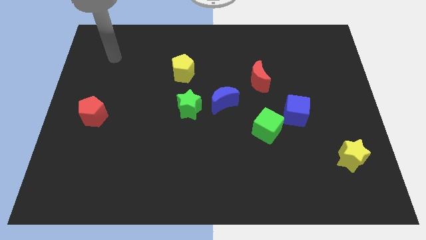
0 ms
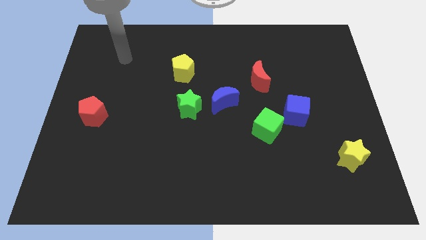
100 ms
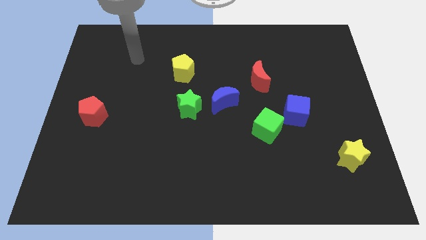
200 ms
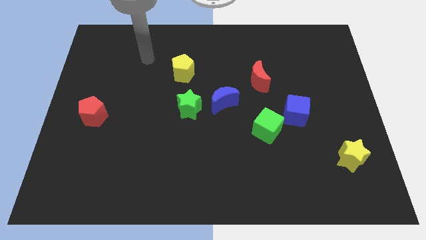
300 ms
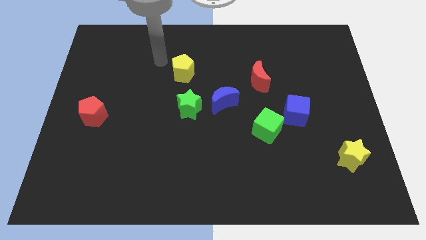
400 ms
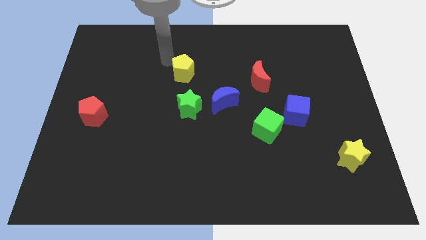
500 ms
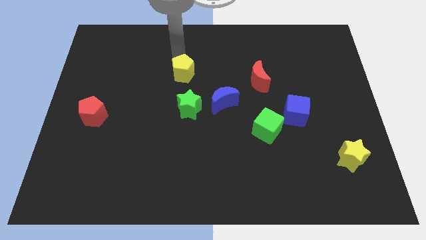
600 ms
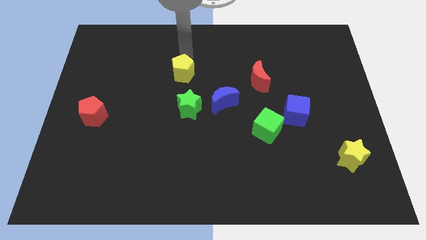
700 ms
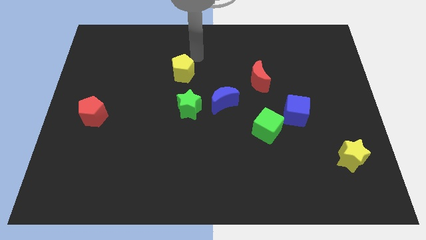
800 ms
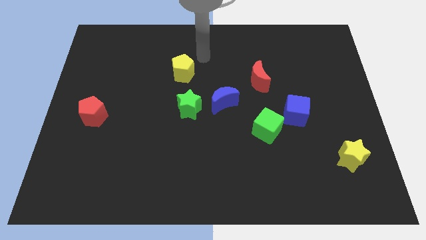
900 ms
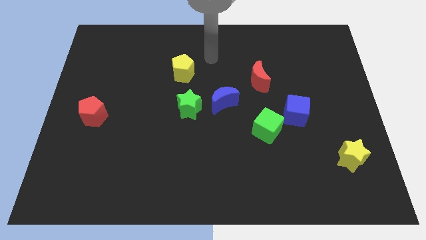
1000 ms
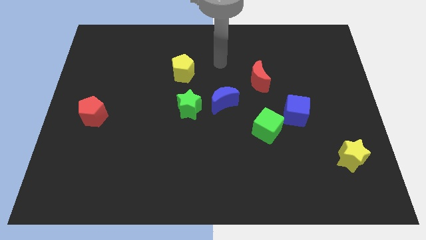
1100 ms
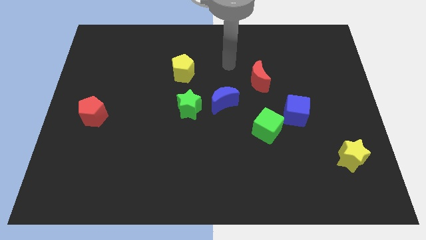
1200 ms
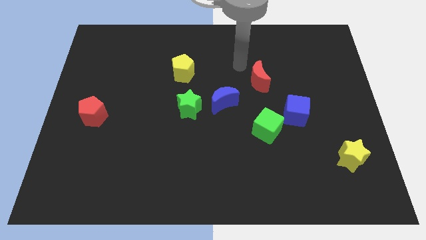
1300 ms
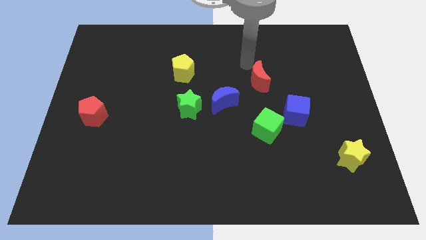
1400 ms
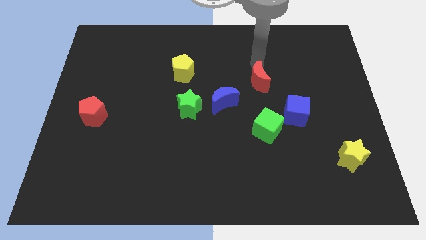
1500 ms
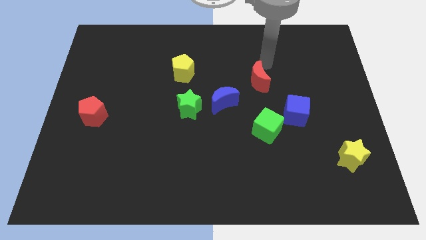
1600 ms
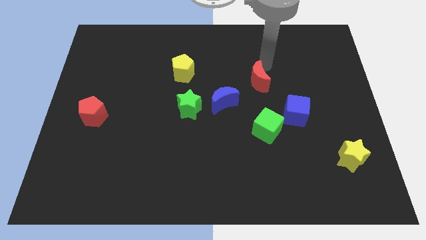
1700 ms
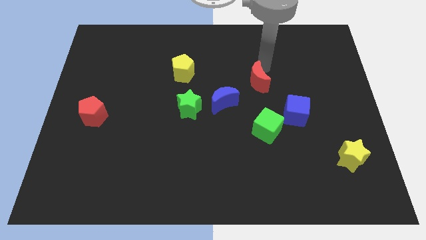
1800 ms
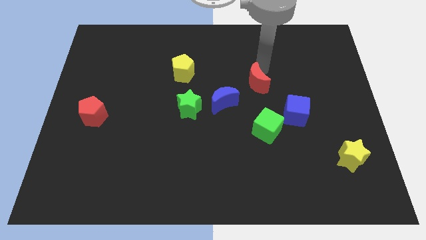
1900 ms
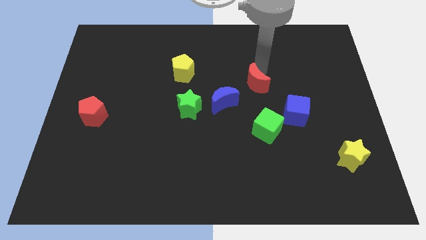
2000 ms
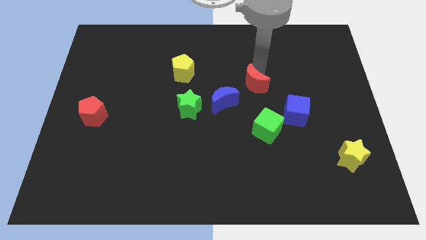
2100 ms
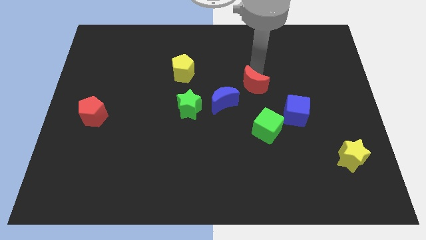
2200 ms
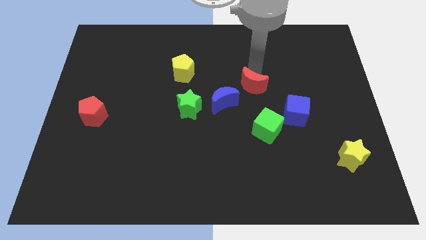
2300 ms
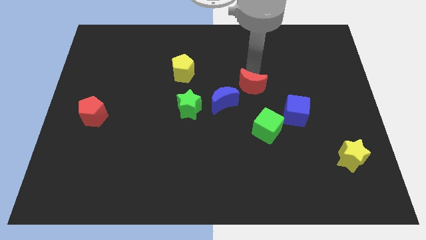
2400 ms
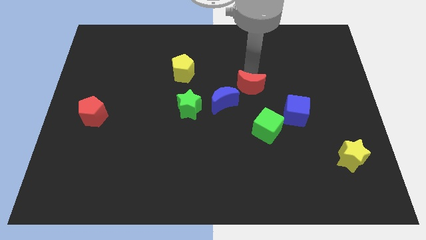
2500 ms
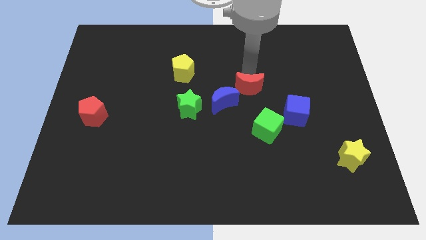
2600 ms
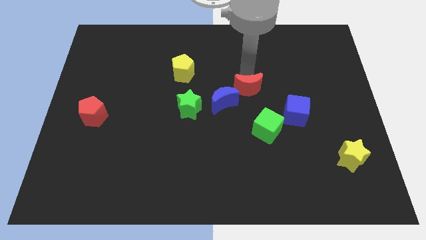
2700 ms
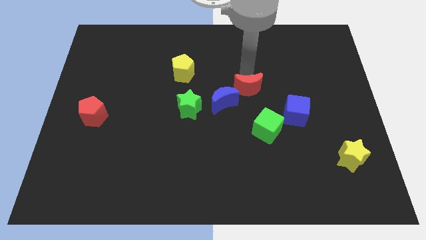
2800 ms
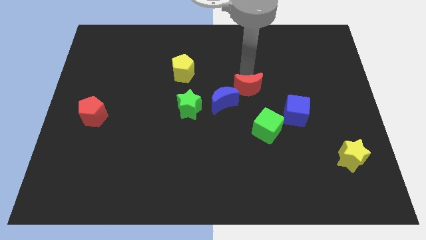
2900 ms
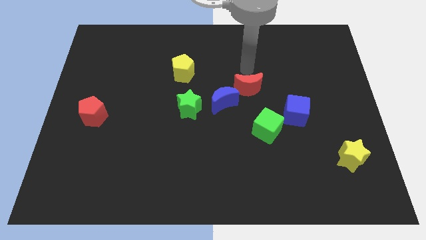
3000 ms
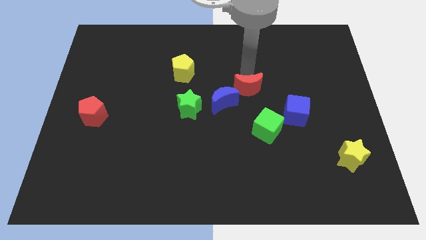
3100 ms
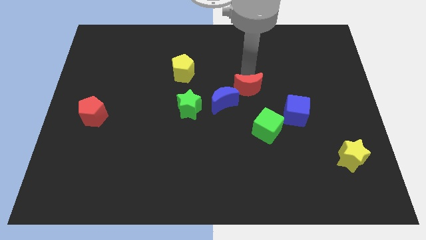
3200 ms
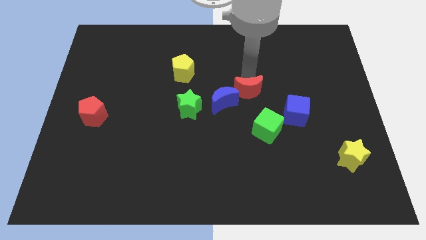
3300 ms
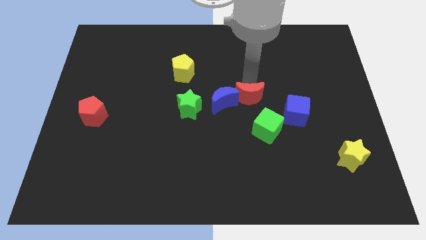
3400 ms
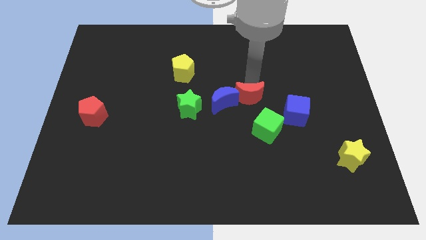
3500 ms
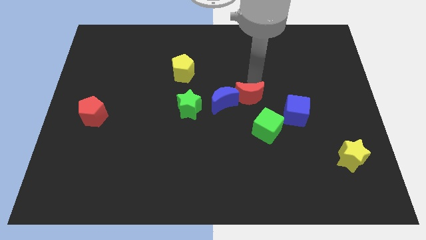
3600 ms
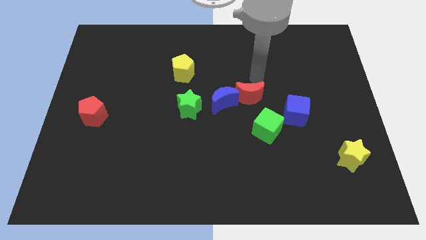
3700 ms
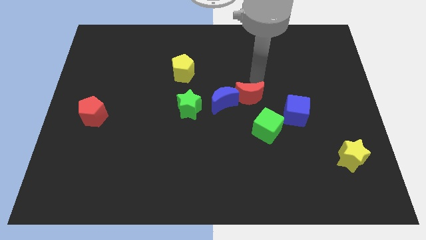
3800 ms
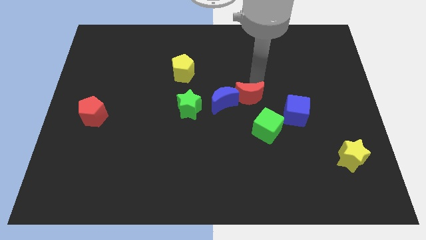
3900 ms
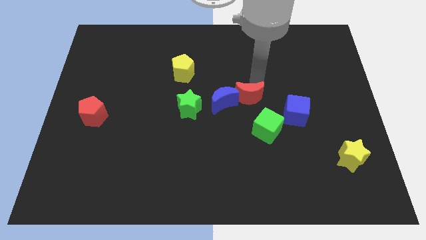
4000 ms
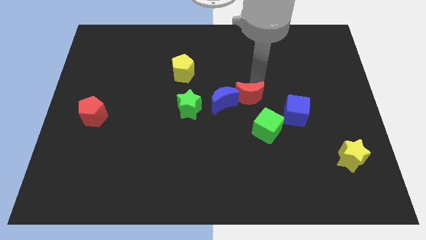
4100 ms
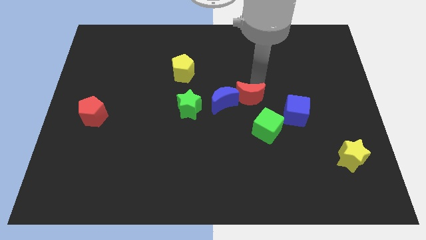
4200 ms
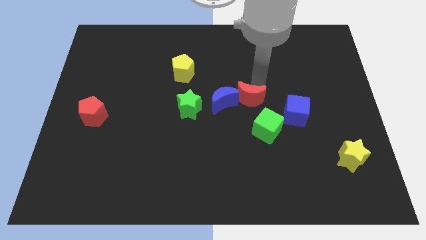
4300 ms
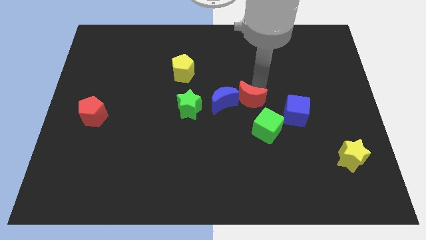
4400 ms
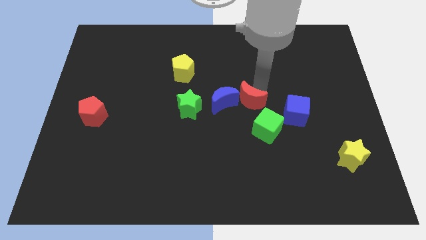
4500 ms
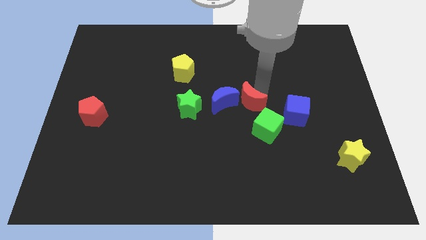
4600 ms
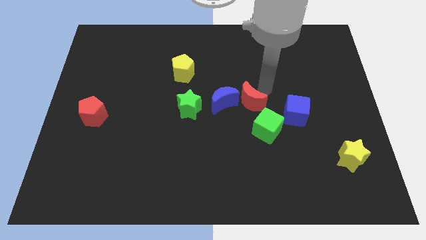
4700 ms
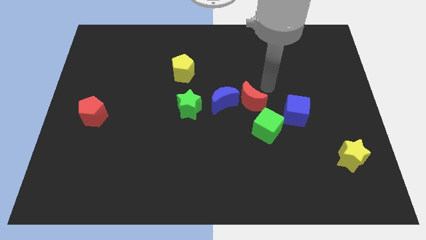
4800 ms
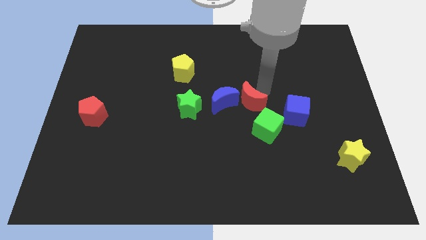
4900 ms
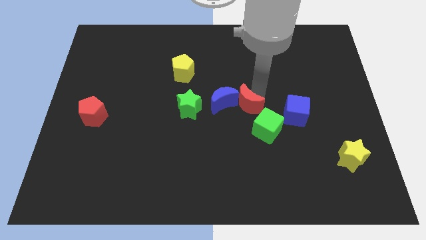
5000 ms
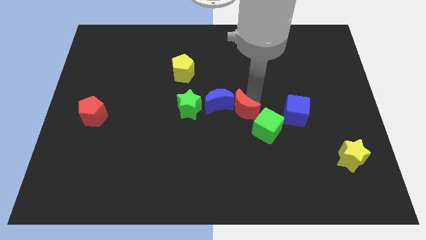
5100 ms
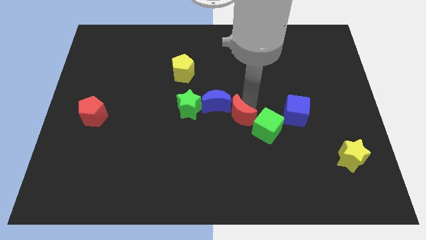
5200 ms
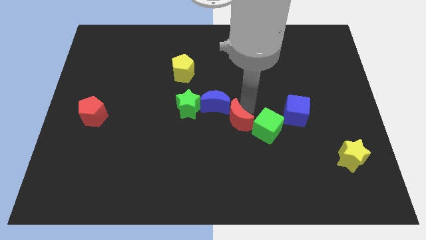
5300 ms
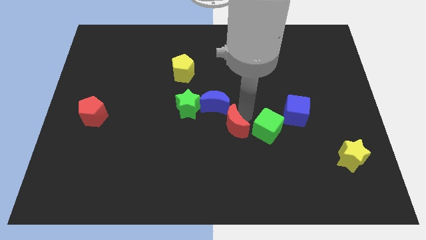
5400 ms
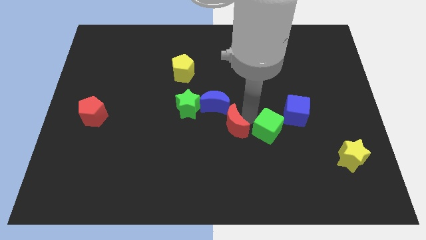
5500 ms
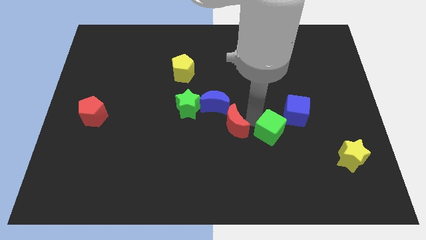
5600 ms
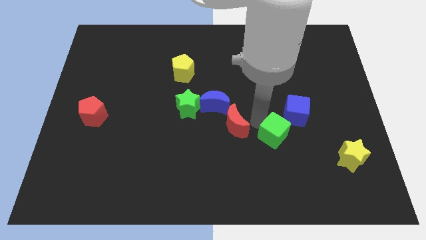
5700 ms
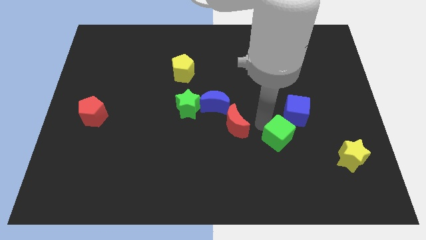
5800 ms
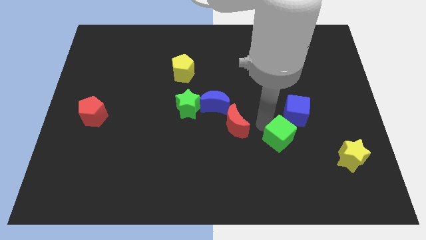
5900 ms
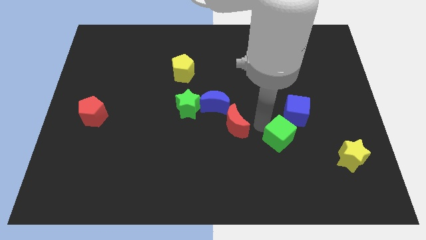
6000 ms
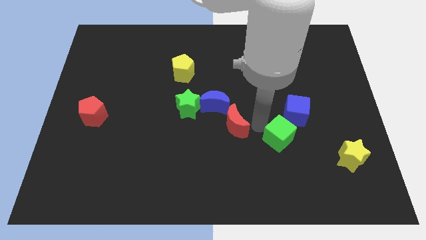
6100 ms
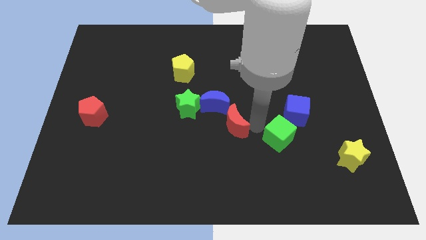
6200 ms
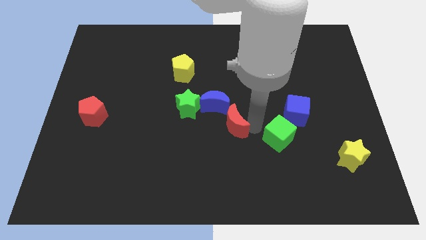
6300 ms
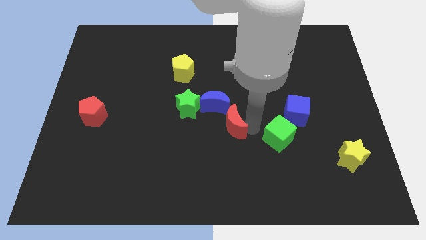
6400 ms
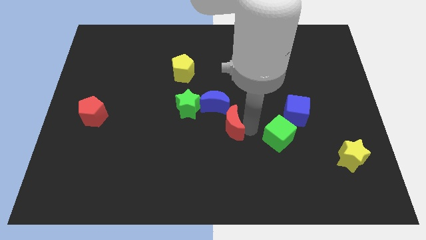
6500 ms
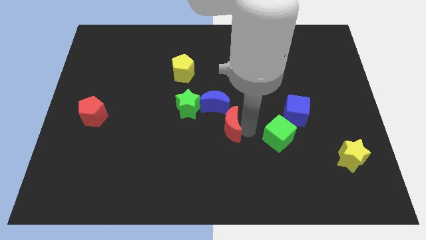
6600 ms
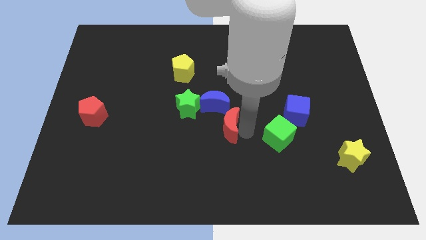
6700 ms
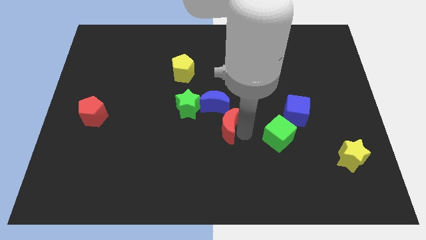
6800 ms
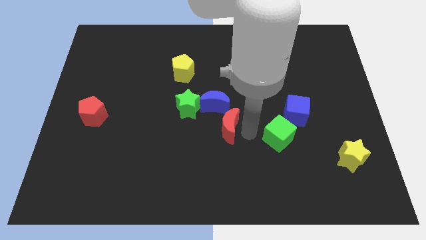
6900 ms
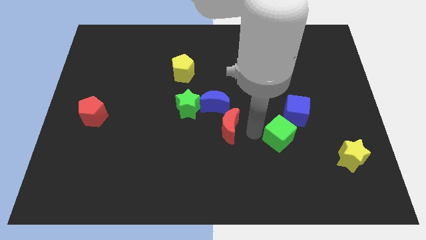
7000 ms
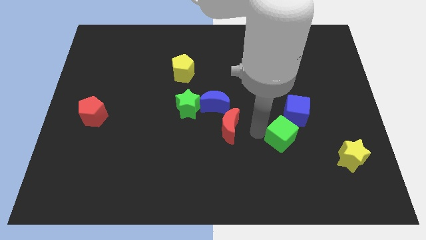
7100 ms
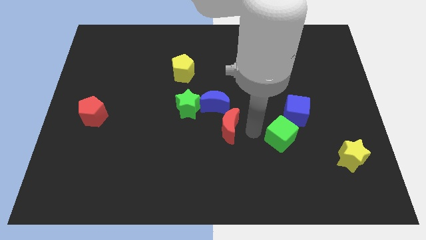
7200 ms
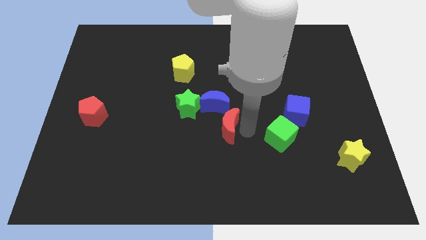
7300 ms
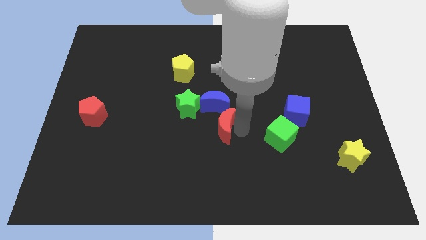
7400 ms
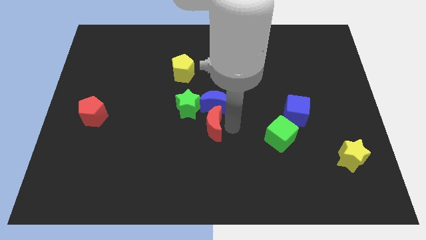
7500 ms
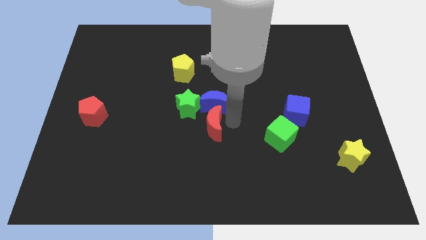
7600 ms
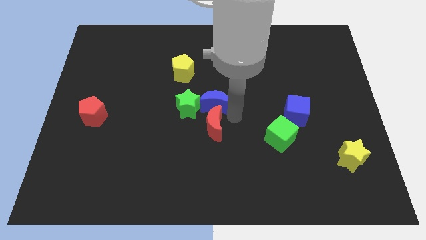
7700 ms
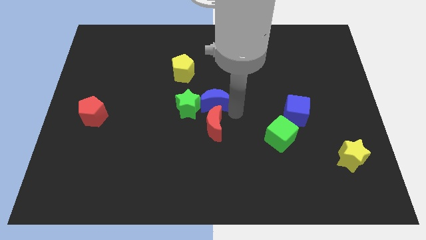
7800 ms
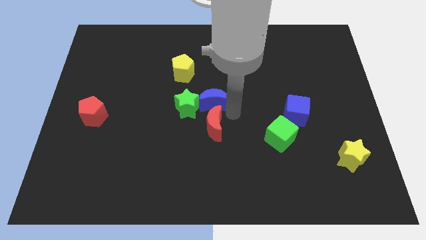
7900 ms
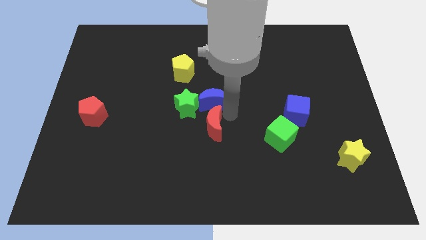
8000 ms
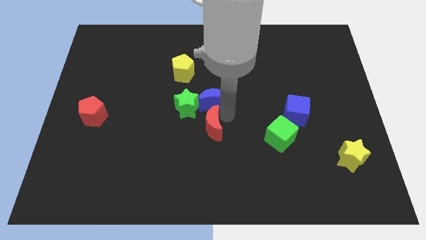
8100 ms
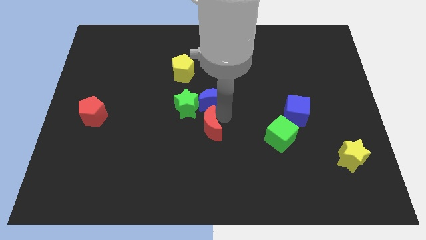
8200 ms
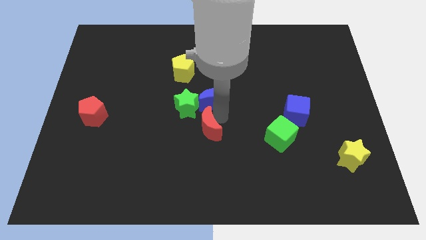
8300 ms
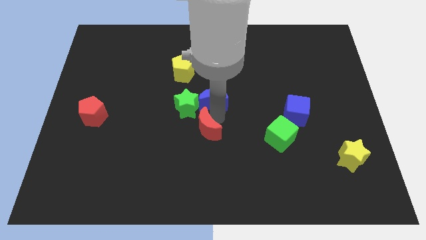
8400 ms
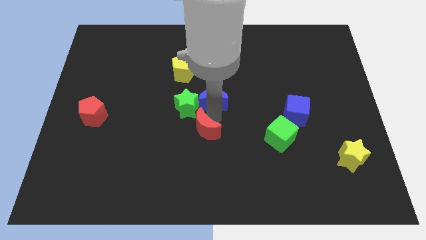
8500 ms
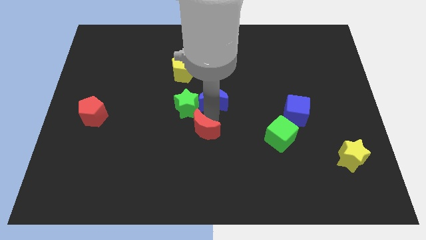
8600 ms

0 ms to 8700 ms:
slide the red moon down and then to the left

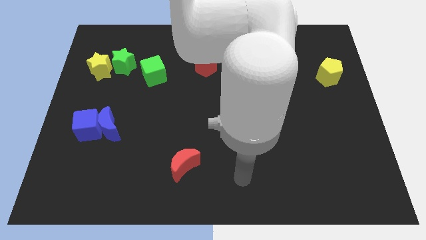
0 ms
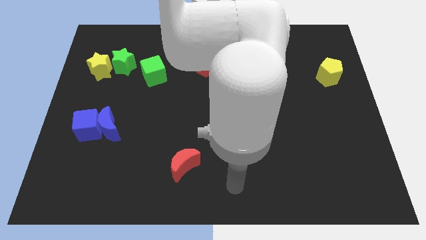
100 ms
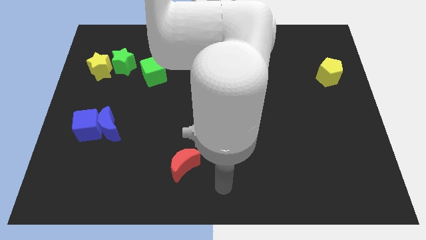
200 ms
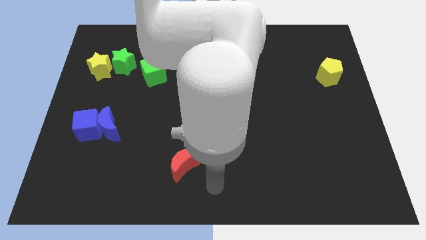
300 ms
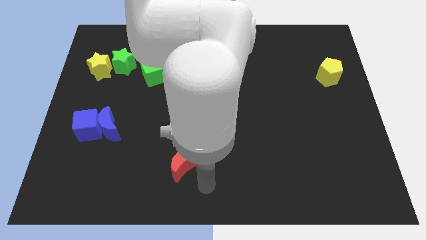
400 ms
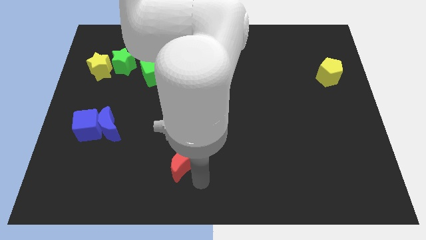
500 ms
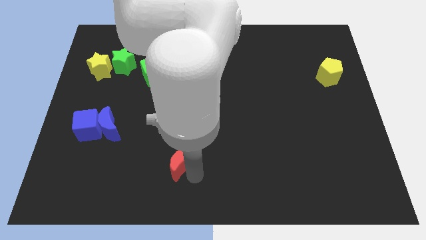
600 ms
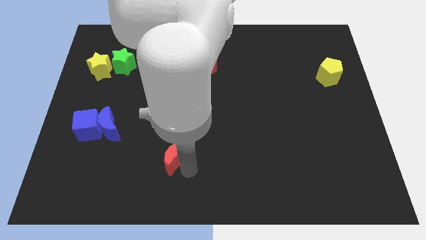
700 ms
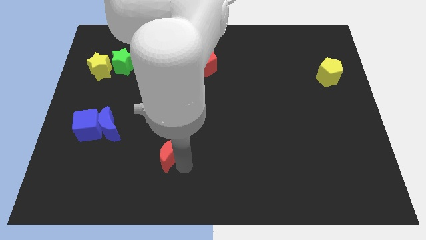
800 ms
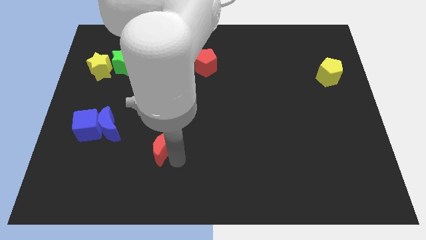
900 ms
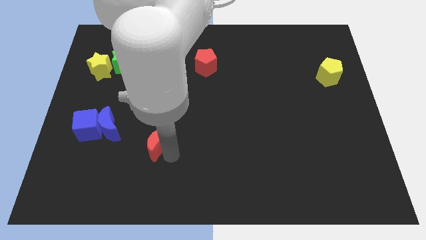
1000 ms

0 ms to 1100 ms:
slide the red moon upwards and to the left diagonally a little
